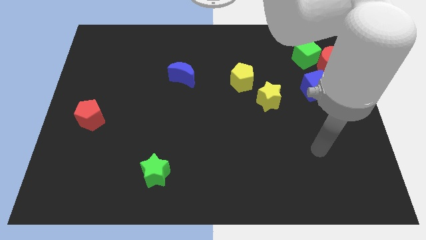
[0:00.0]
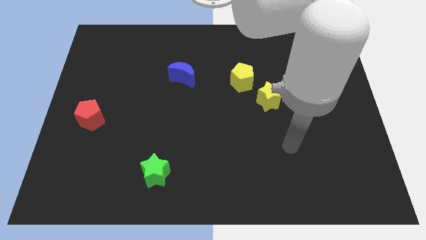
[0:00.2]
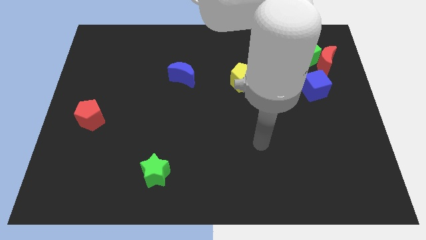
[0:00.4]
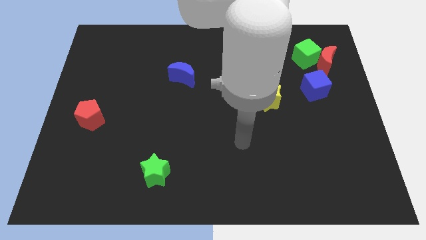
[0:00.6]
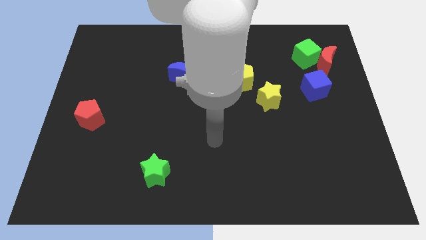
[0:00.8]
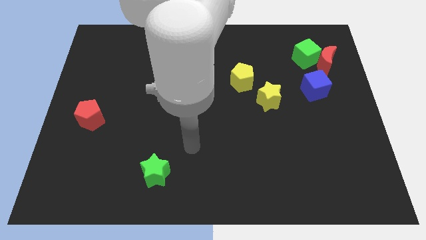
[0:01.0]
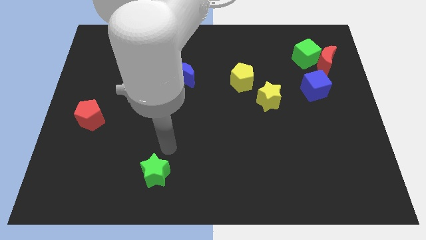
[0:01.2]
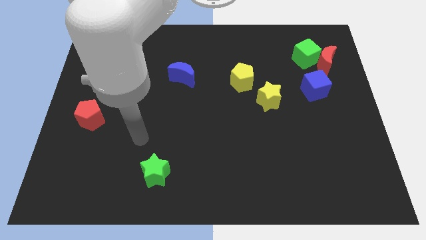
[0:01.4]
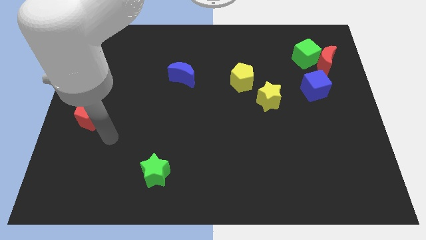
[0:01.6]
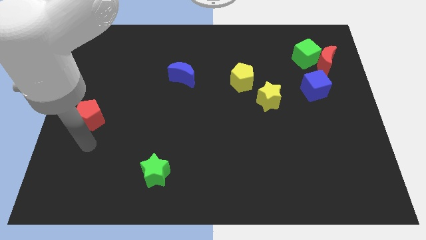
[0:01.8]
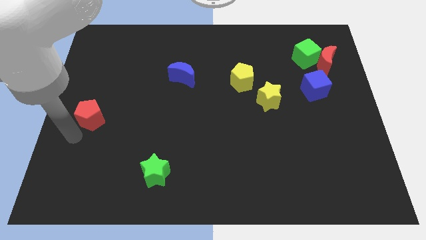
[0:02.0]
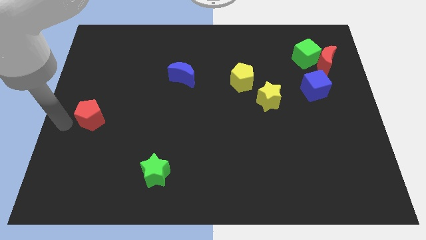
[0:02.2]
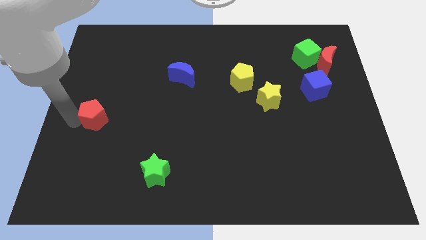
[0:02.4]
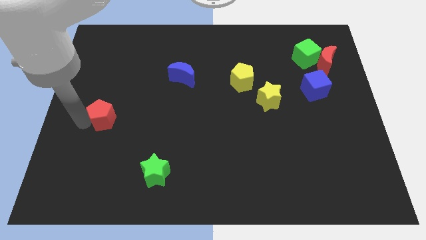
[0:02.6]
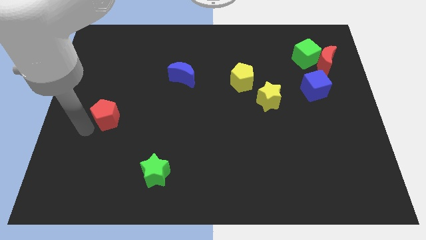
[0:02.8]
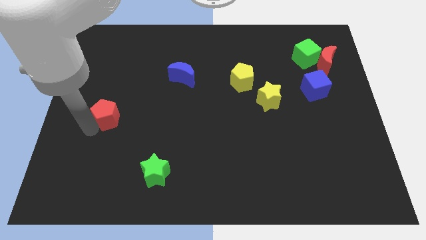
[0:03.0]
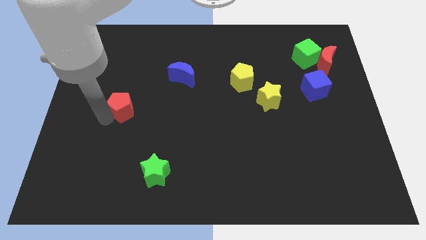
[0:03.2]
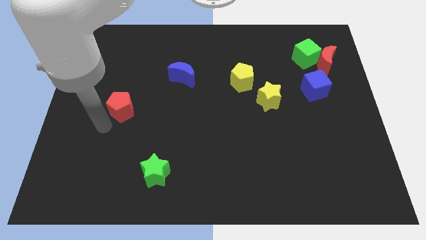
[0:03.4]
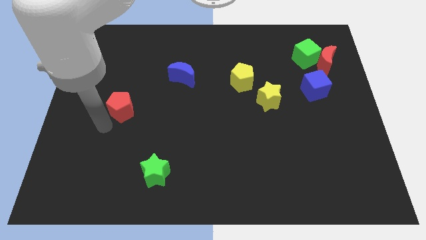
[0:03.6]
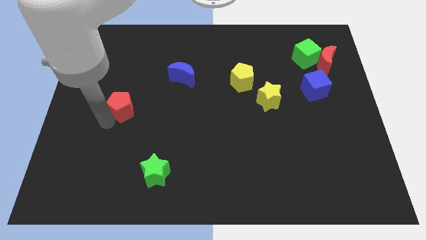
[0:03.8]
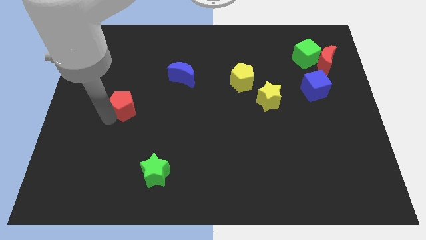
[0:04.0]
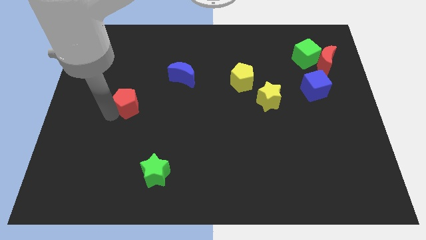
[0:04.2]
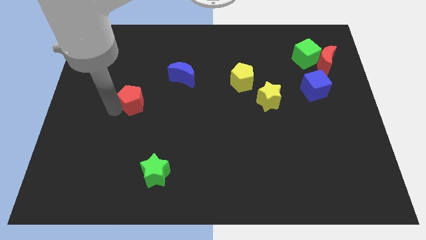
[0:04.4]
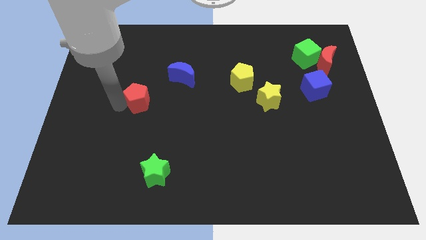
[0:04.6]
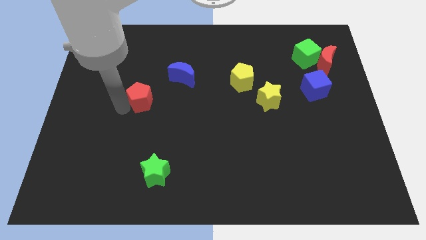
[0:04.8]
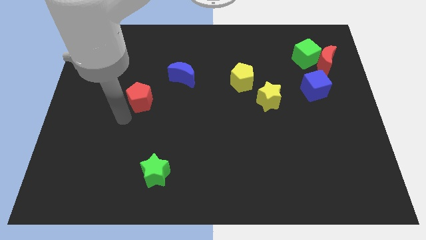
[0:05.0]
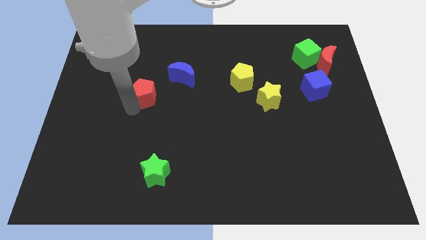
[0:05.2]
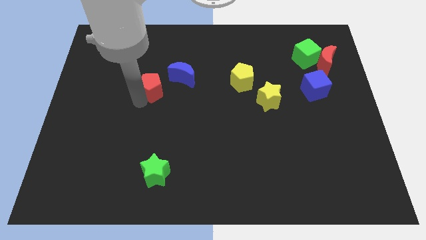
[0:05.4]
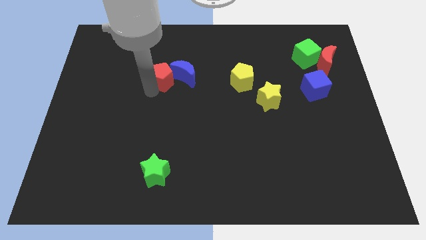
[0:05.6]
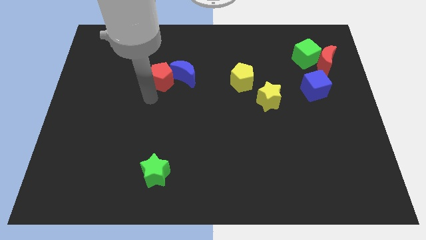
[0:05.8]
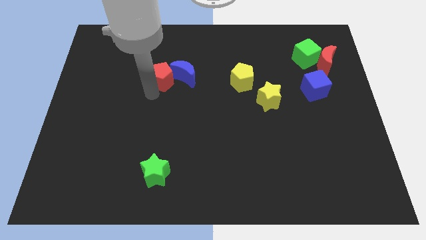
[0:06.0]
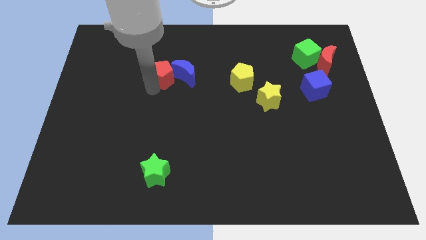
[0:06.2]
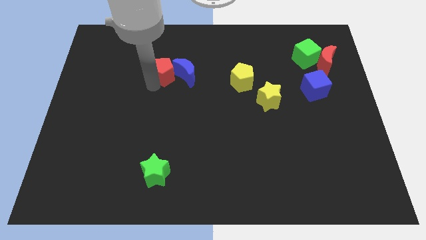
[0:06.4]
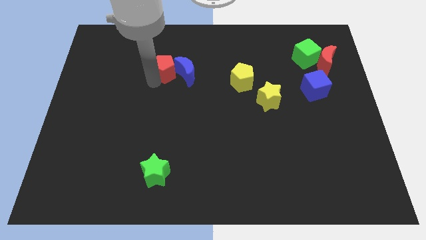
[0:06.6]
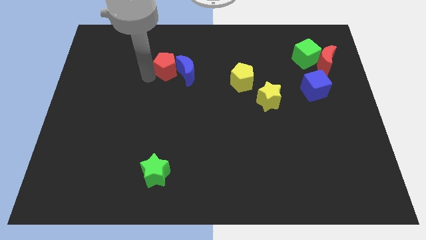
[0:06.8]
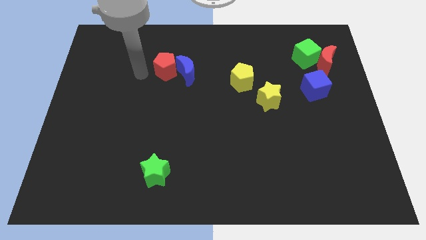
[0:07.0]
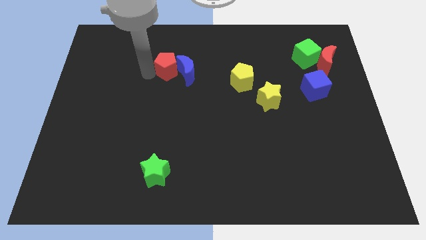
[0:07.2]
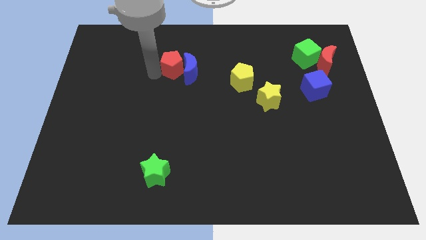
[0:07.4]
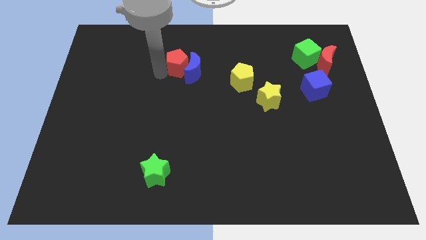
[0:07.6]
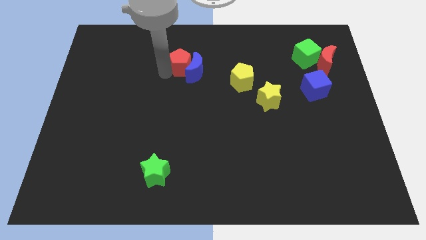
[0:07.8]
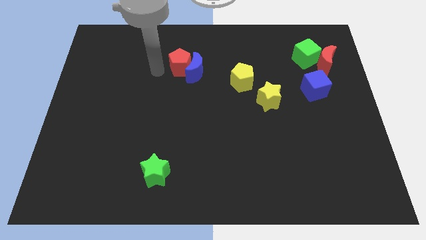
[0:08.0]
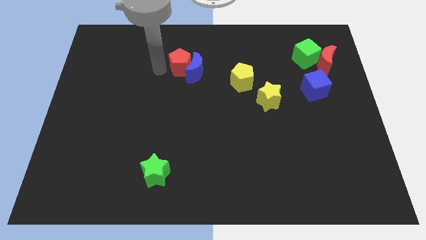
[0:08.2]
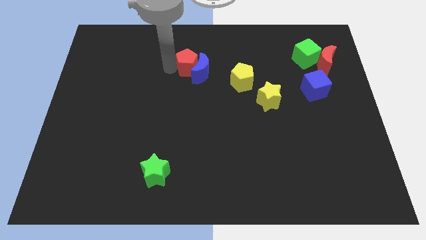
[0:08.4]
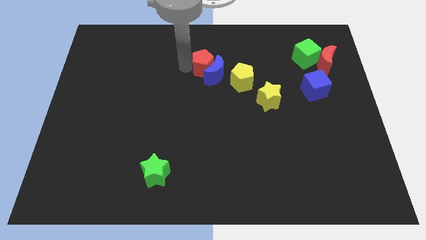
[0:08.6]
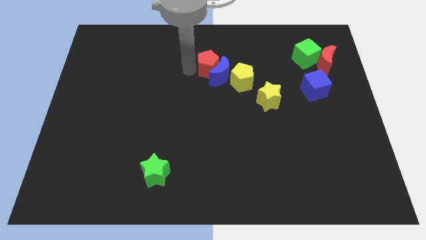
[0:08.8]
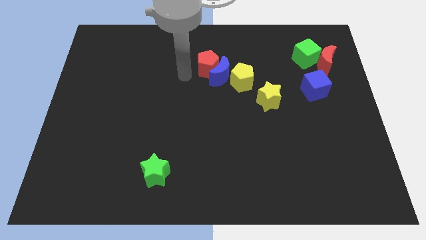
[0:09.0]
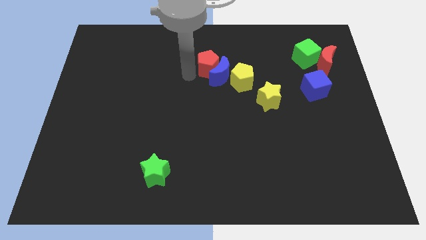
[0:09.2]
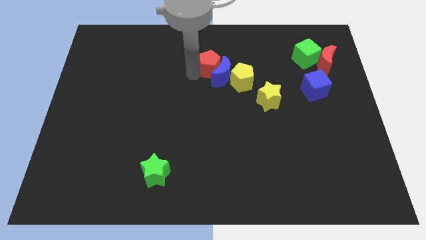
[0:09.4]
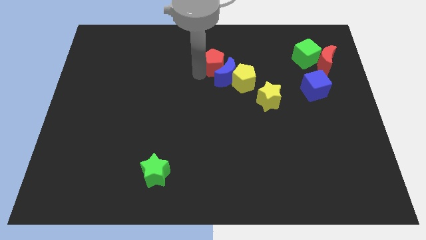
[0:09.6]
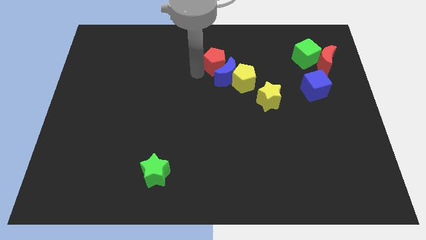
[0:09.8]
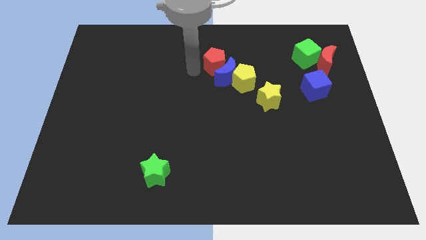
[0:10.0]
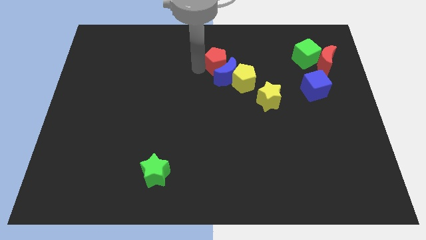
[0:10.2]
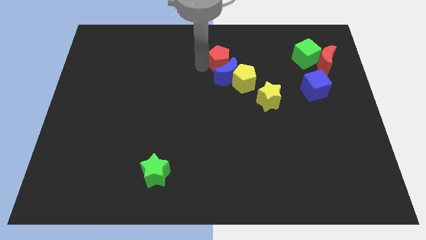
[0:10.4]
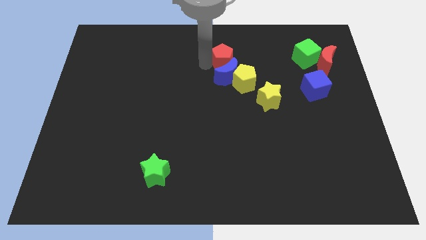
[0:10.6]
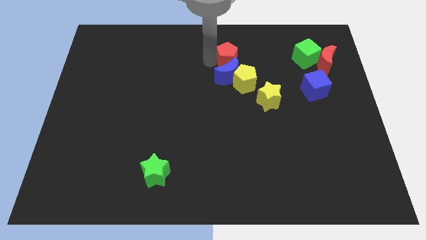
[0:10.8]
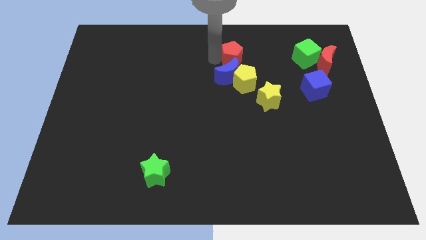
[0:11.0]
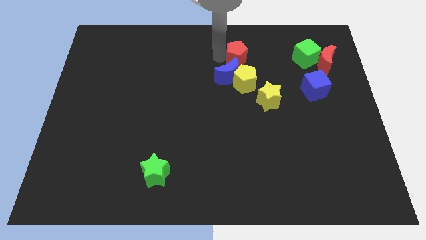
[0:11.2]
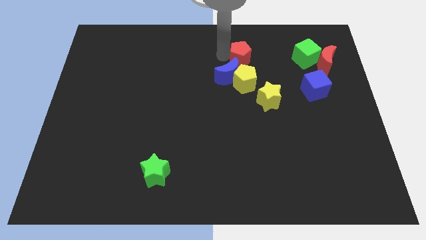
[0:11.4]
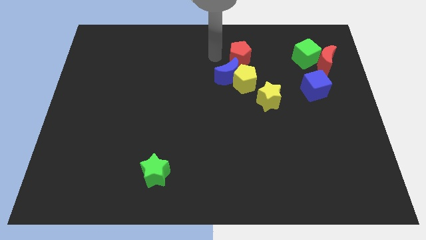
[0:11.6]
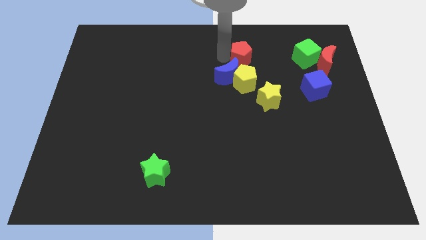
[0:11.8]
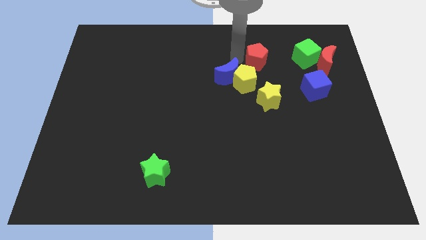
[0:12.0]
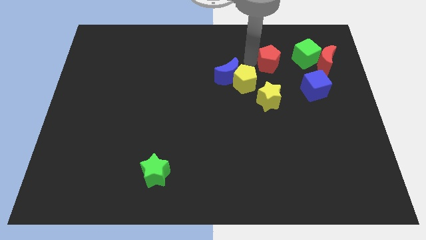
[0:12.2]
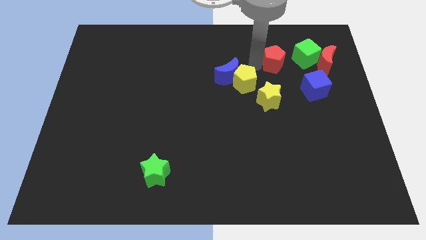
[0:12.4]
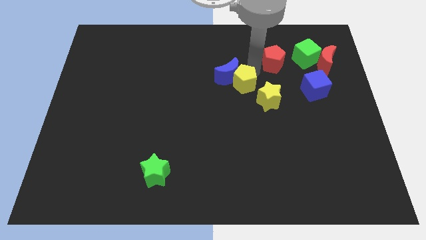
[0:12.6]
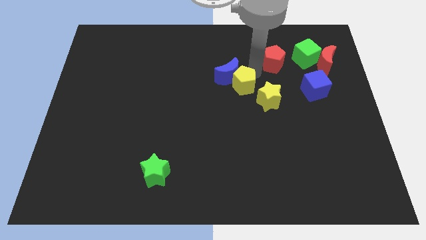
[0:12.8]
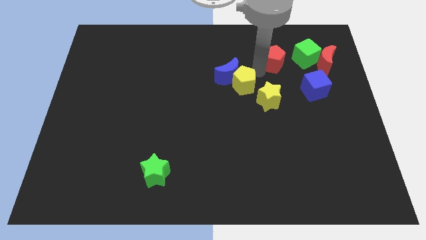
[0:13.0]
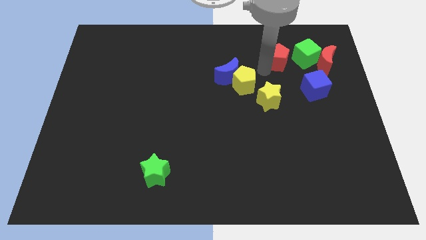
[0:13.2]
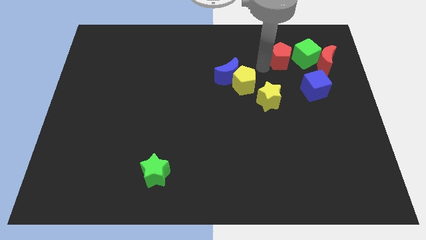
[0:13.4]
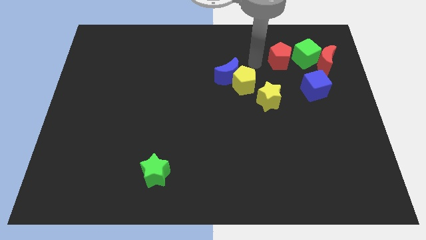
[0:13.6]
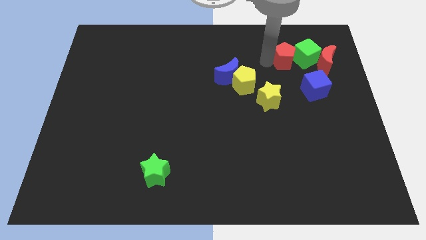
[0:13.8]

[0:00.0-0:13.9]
slide the red pentagon next to the green cube
